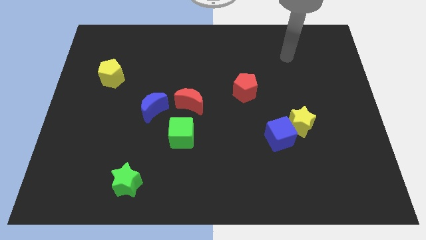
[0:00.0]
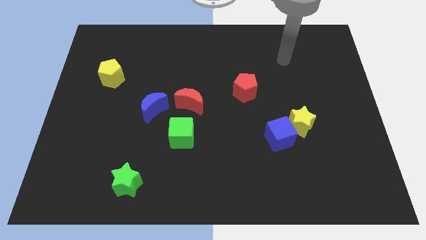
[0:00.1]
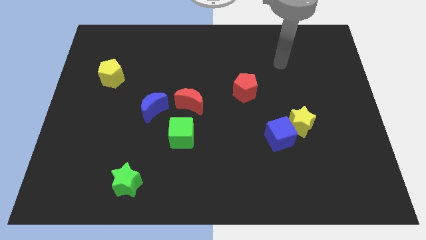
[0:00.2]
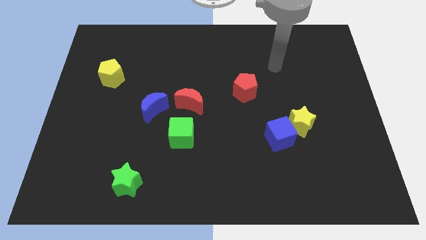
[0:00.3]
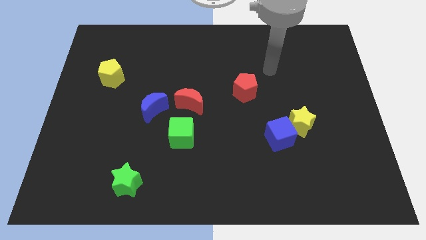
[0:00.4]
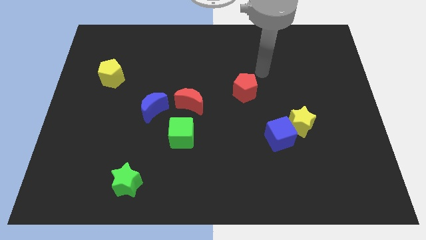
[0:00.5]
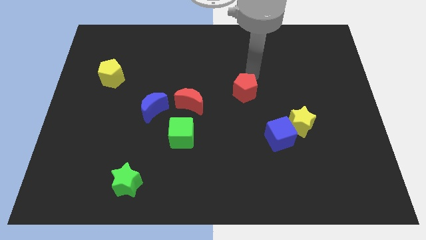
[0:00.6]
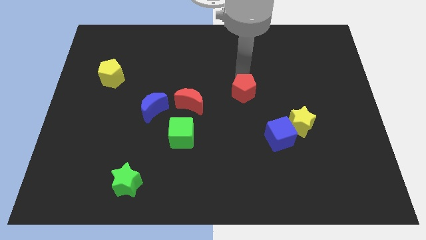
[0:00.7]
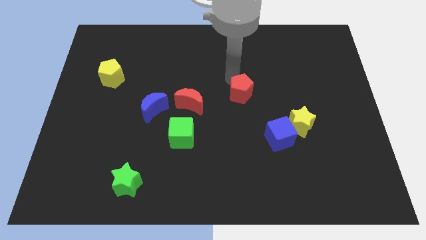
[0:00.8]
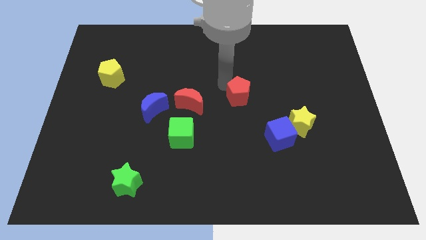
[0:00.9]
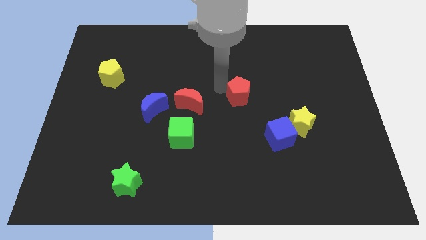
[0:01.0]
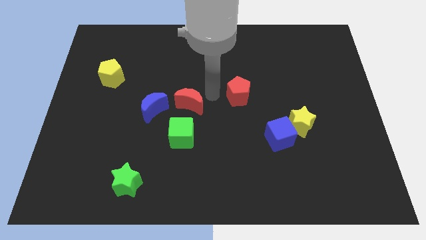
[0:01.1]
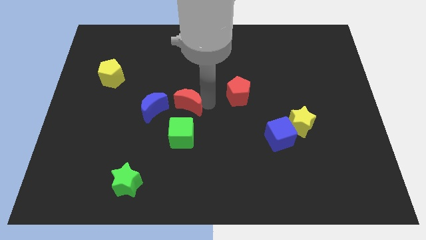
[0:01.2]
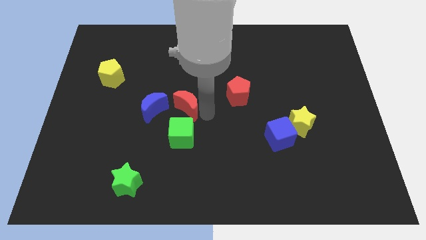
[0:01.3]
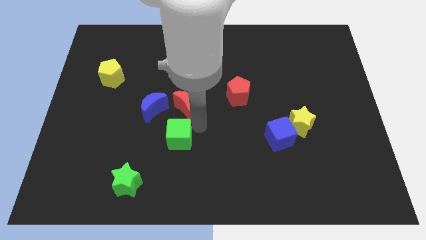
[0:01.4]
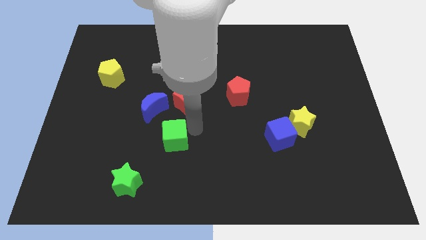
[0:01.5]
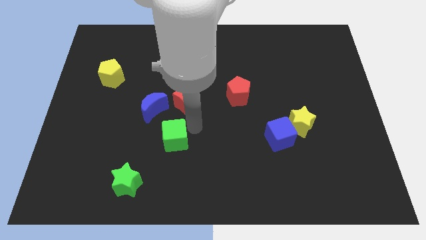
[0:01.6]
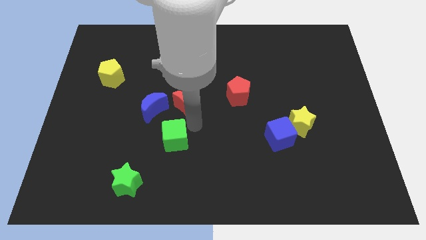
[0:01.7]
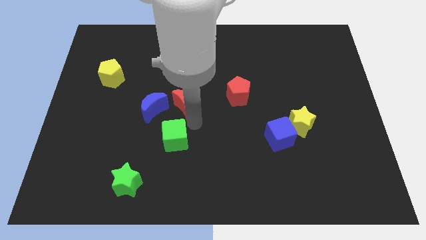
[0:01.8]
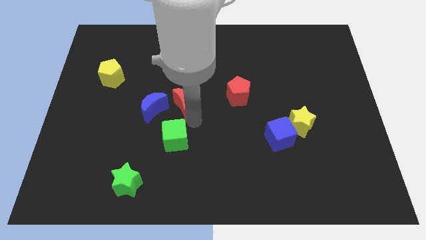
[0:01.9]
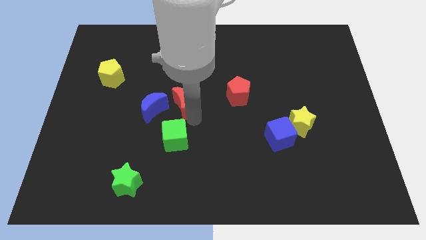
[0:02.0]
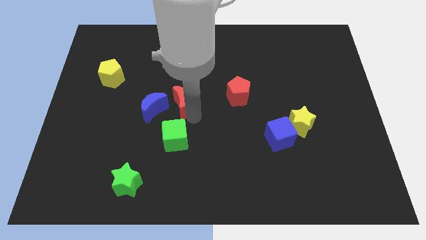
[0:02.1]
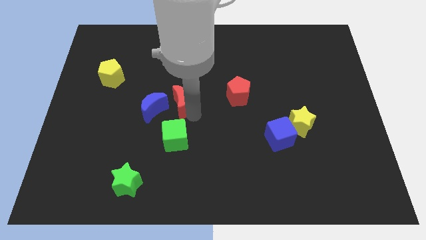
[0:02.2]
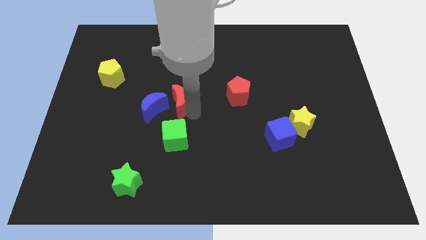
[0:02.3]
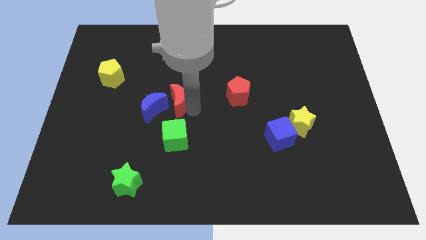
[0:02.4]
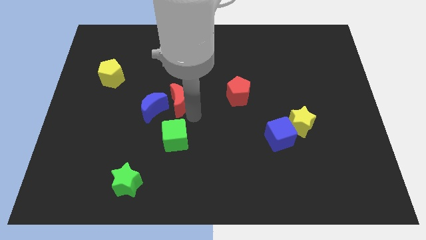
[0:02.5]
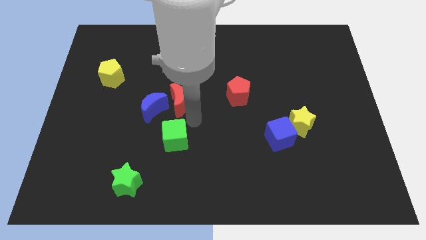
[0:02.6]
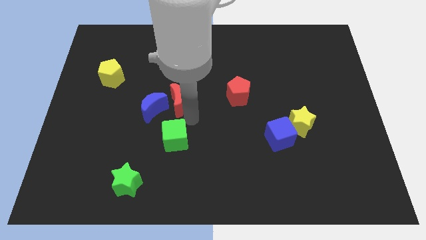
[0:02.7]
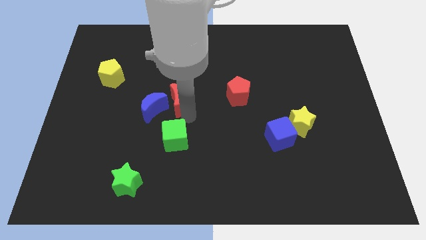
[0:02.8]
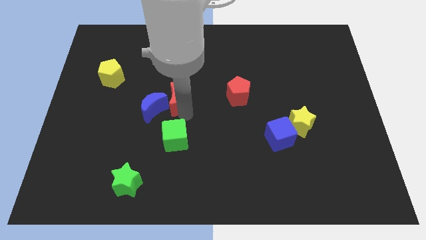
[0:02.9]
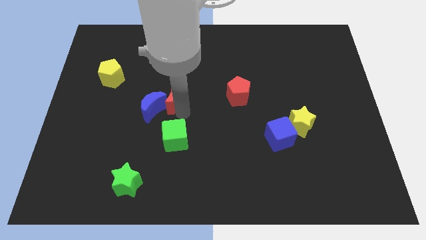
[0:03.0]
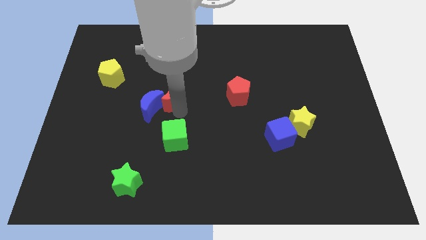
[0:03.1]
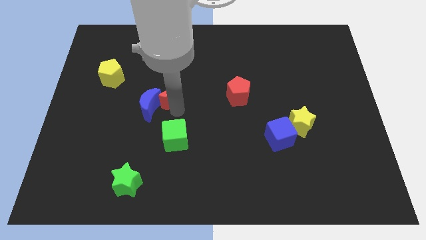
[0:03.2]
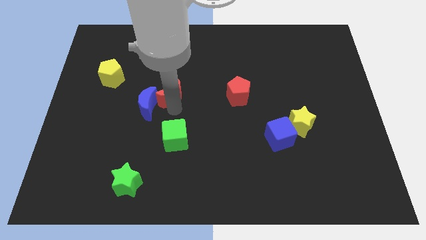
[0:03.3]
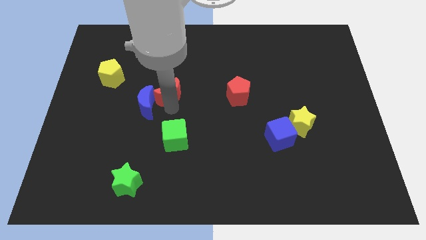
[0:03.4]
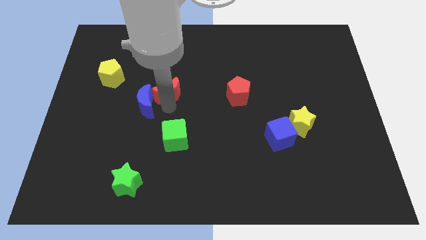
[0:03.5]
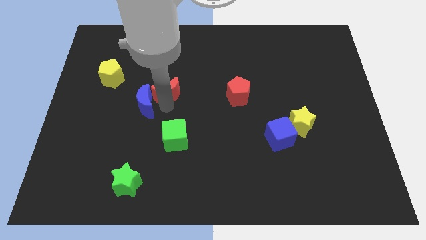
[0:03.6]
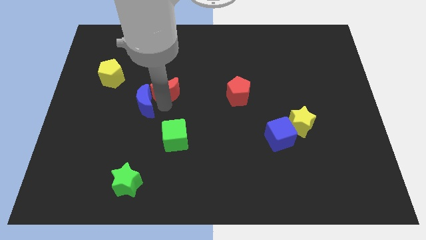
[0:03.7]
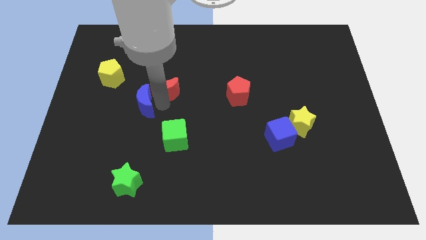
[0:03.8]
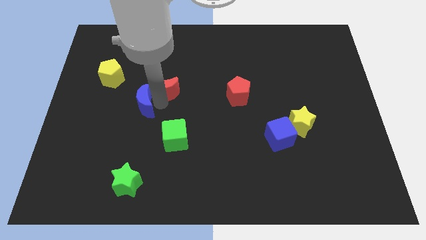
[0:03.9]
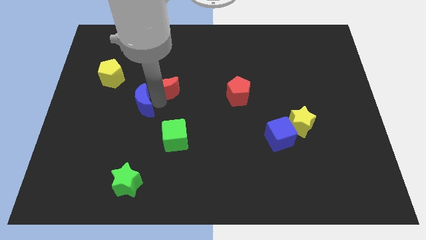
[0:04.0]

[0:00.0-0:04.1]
move the red moon a bit up and then left

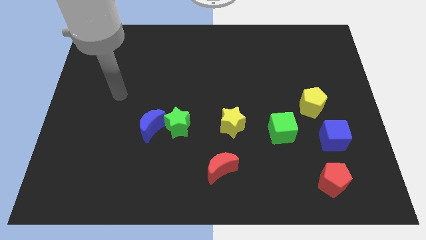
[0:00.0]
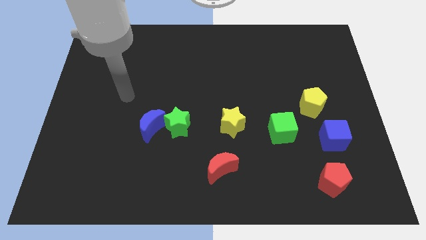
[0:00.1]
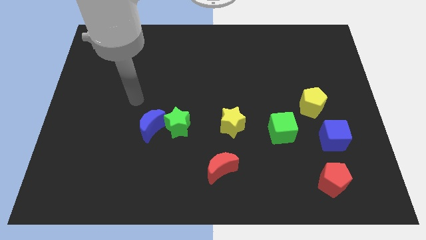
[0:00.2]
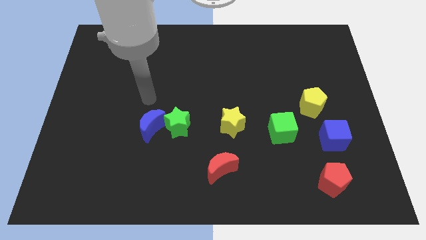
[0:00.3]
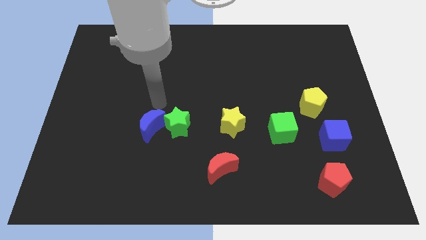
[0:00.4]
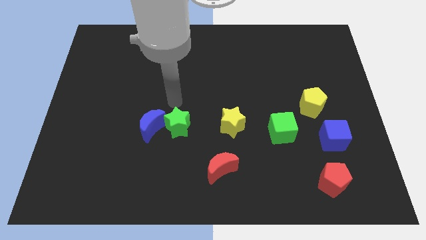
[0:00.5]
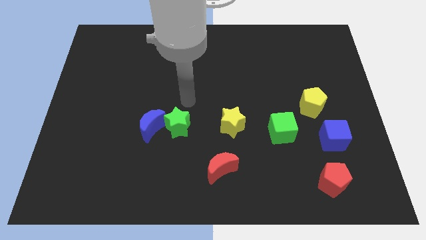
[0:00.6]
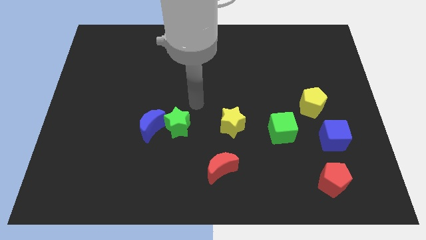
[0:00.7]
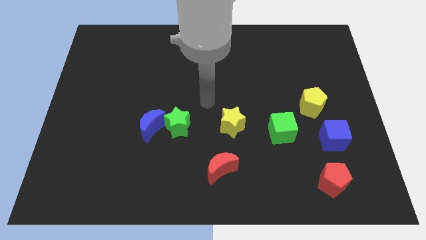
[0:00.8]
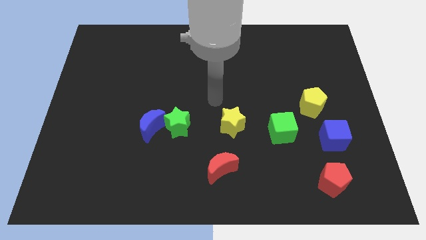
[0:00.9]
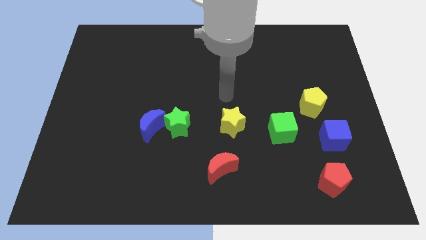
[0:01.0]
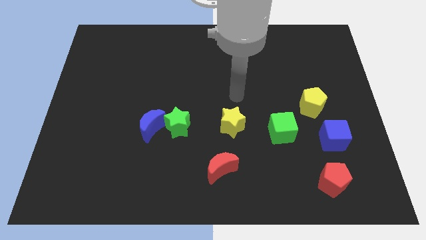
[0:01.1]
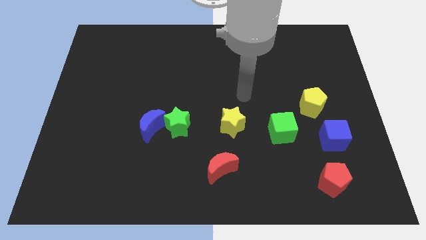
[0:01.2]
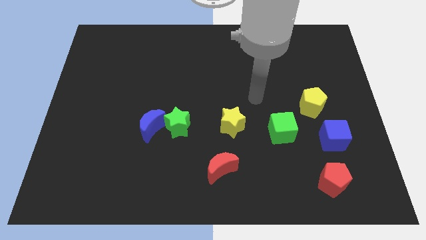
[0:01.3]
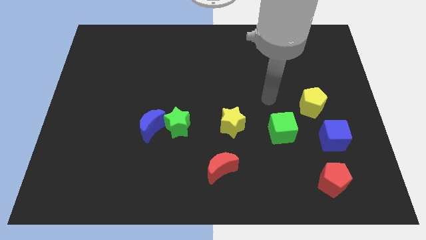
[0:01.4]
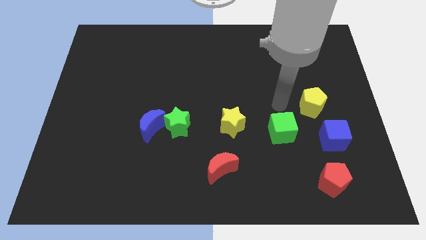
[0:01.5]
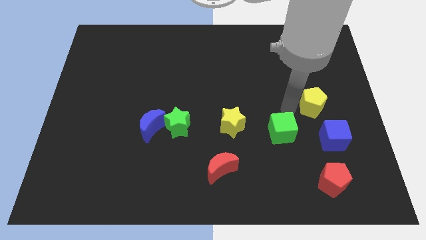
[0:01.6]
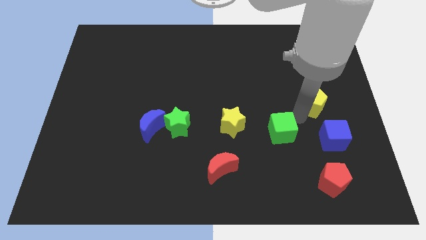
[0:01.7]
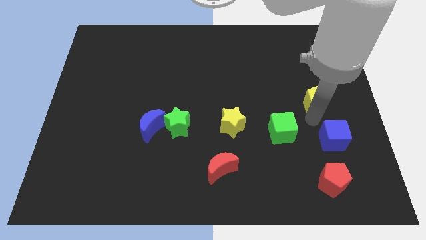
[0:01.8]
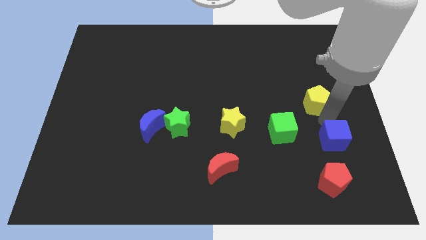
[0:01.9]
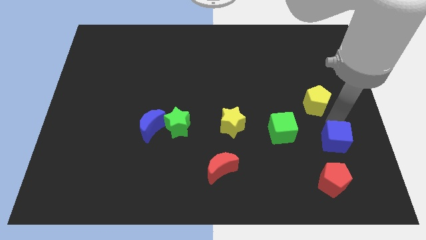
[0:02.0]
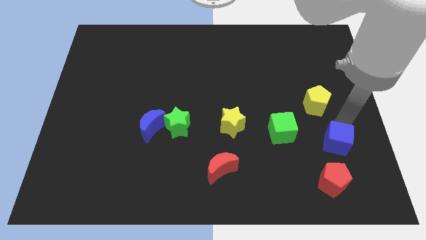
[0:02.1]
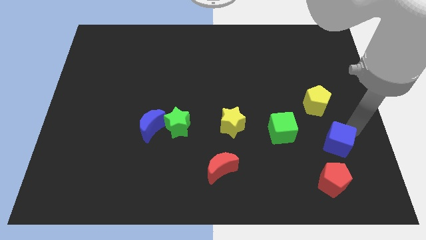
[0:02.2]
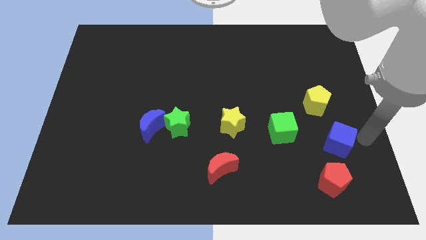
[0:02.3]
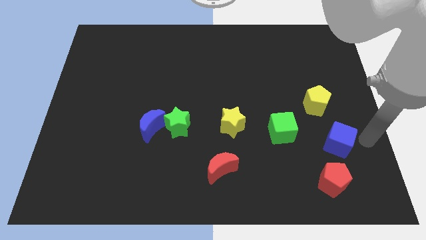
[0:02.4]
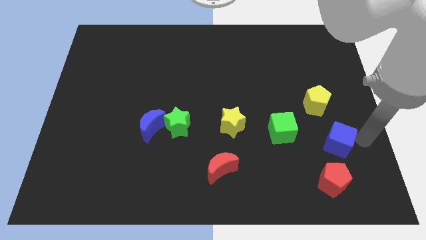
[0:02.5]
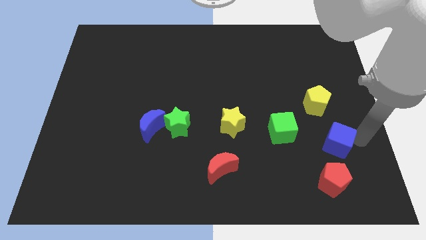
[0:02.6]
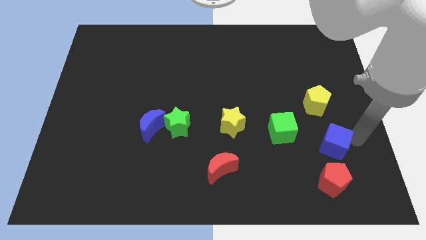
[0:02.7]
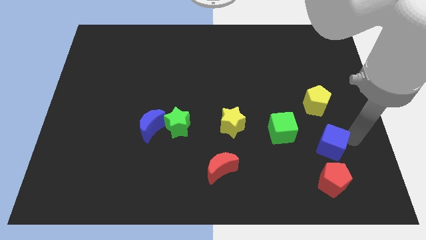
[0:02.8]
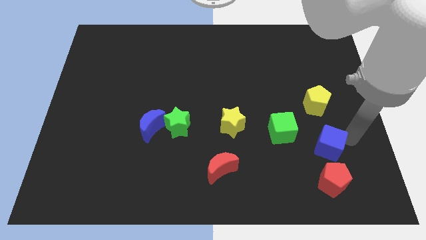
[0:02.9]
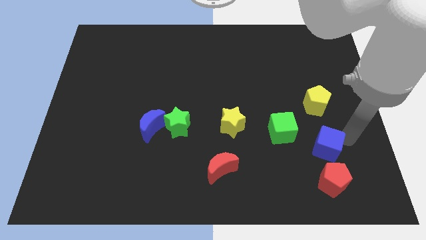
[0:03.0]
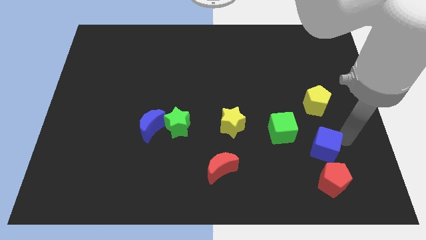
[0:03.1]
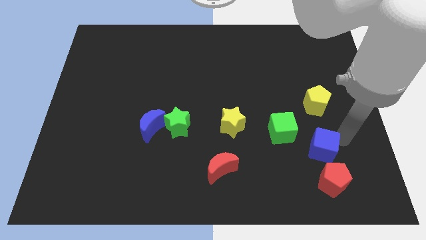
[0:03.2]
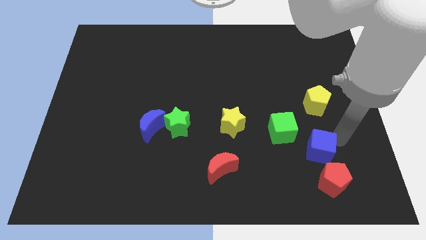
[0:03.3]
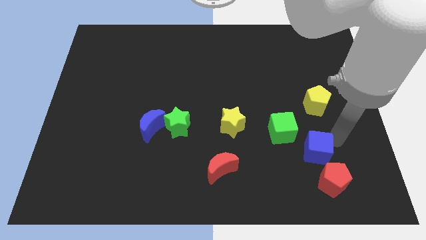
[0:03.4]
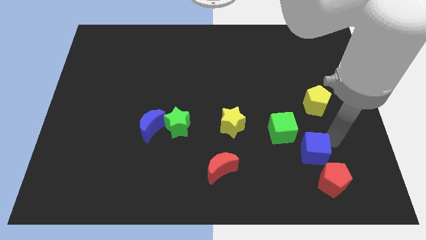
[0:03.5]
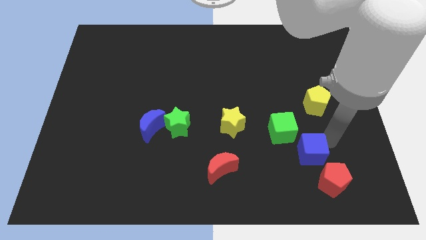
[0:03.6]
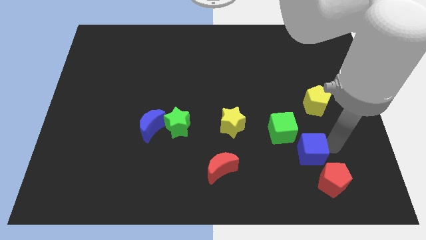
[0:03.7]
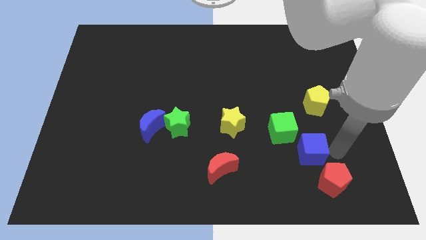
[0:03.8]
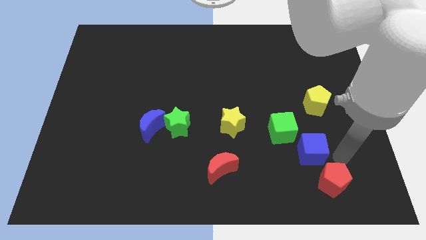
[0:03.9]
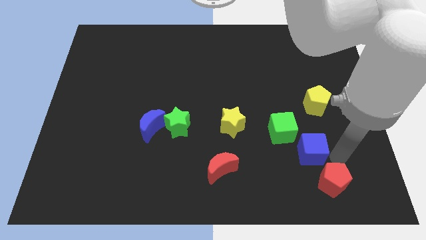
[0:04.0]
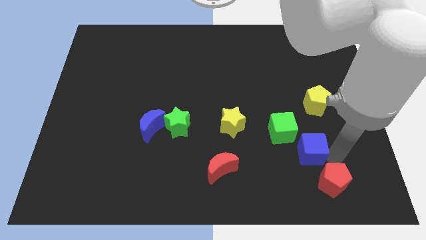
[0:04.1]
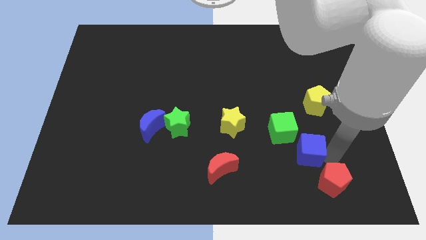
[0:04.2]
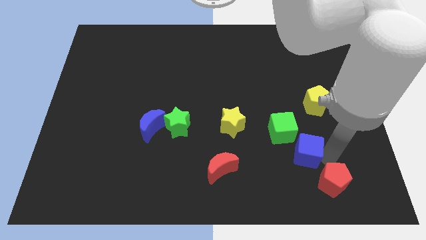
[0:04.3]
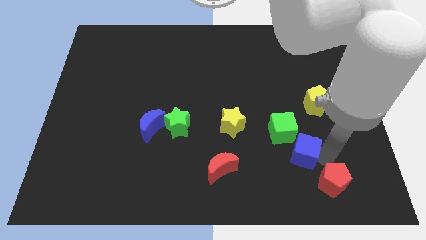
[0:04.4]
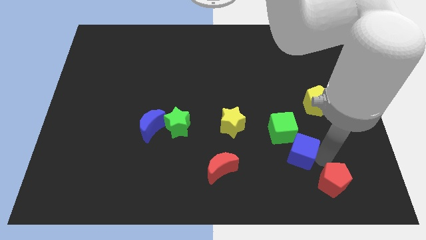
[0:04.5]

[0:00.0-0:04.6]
slightly move the blue cube to the left
